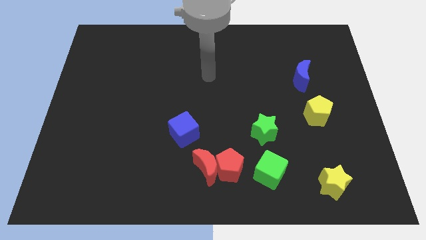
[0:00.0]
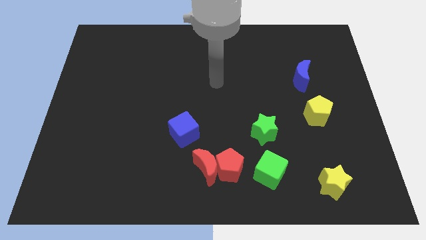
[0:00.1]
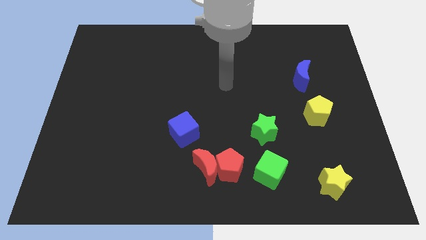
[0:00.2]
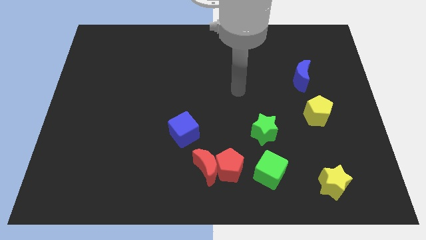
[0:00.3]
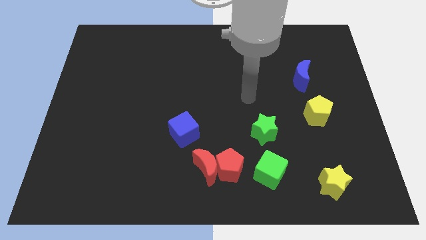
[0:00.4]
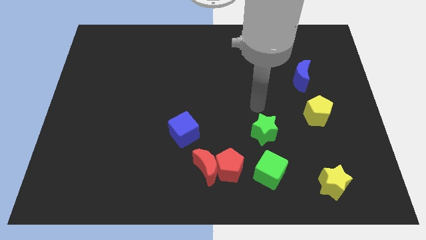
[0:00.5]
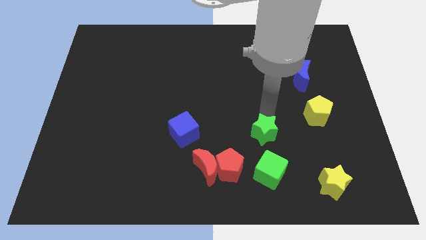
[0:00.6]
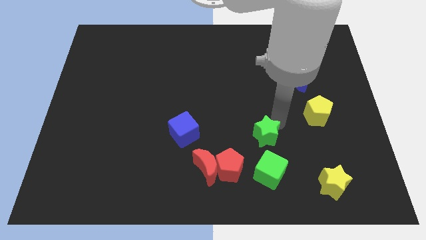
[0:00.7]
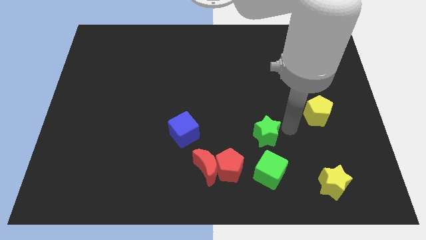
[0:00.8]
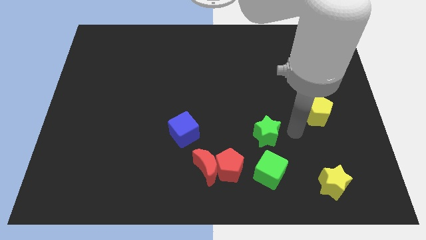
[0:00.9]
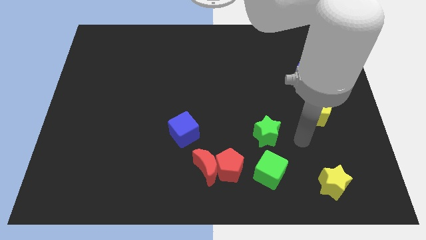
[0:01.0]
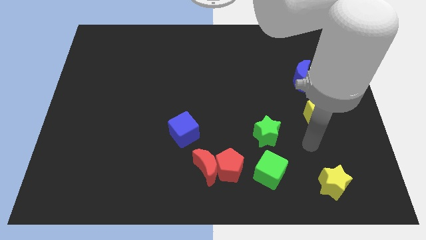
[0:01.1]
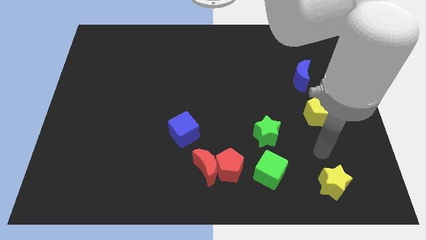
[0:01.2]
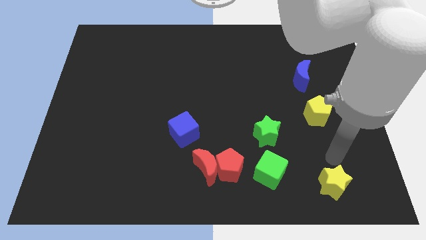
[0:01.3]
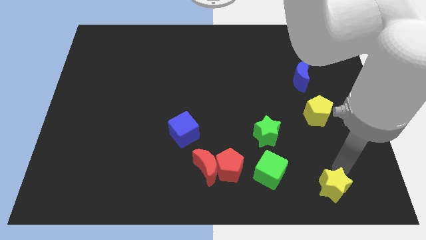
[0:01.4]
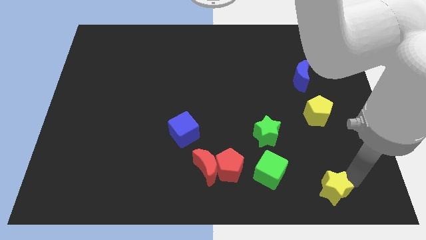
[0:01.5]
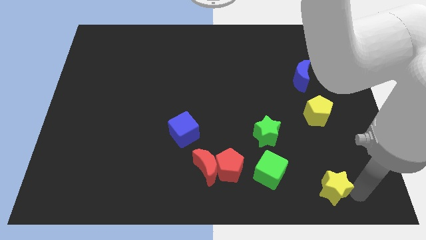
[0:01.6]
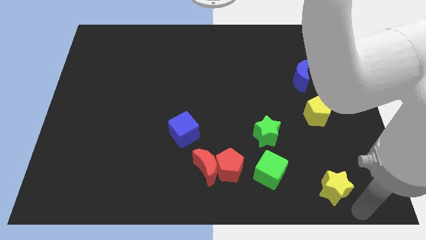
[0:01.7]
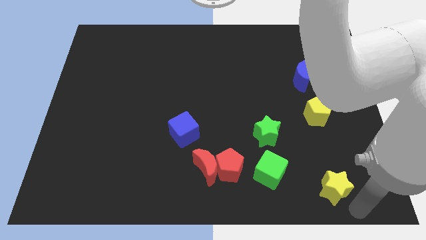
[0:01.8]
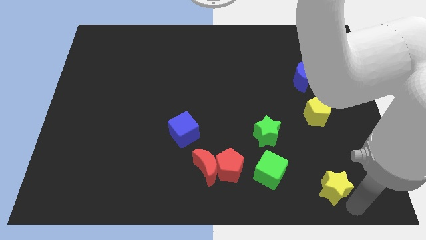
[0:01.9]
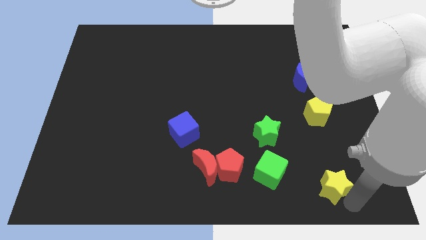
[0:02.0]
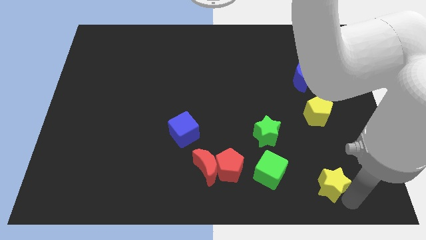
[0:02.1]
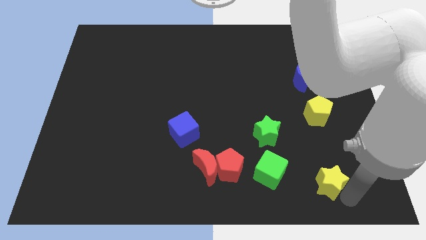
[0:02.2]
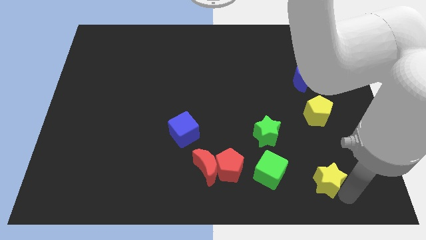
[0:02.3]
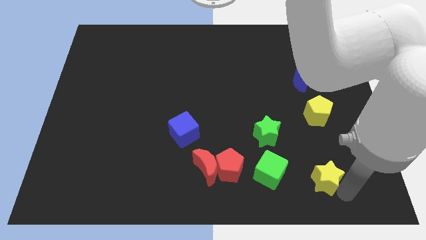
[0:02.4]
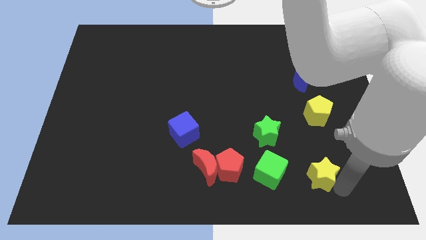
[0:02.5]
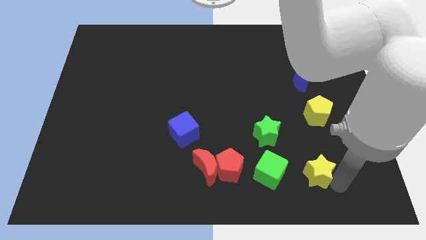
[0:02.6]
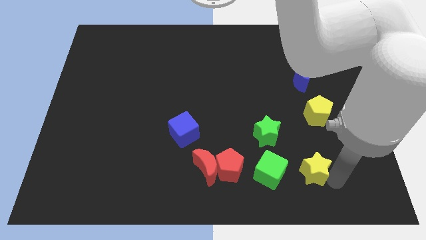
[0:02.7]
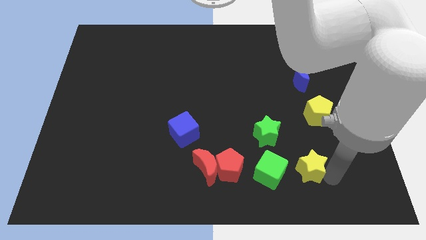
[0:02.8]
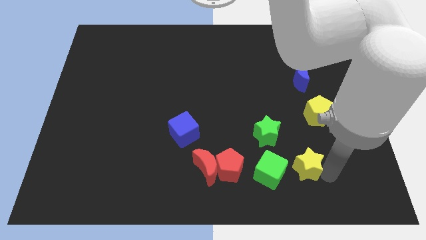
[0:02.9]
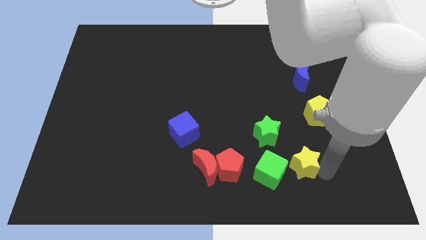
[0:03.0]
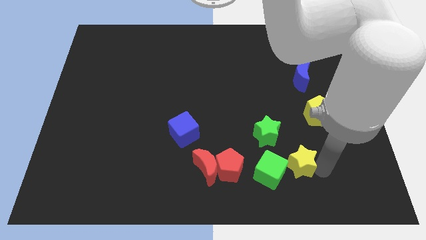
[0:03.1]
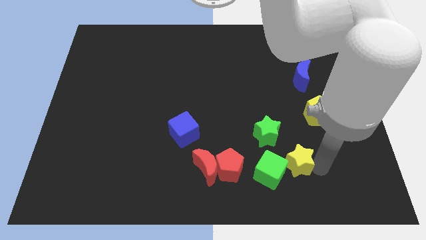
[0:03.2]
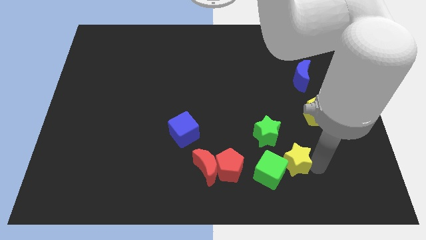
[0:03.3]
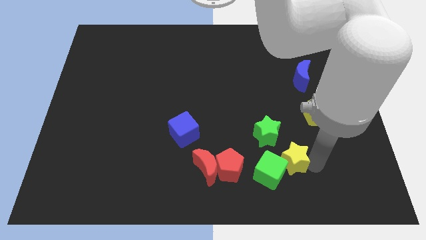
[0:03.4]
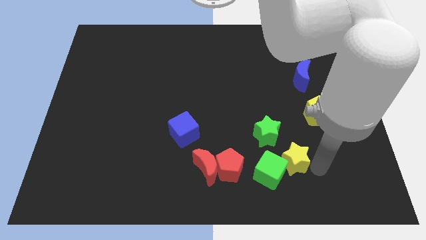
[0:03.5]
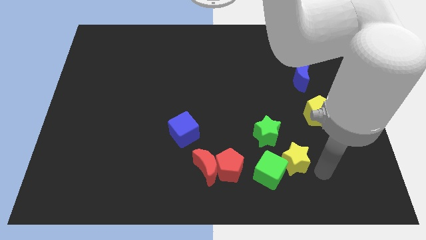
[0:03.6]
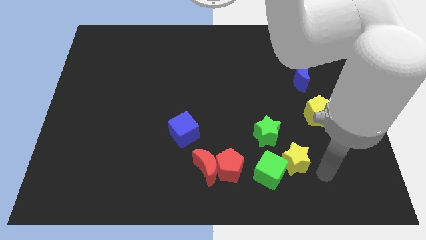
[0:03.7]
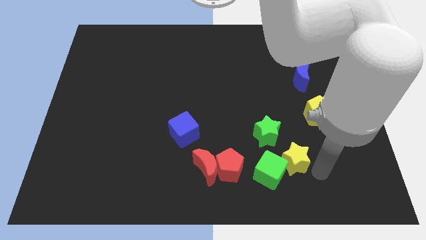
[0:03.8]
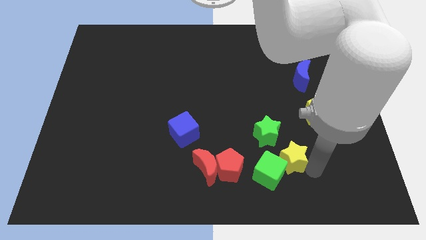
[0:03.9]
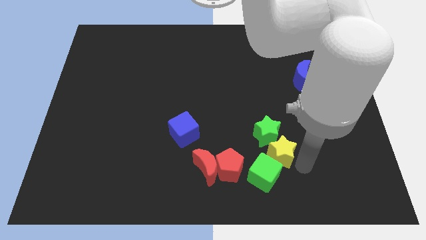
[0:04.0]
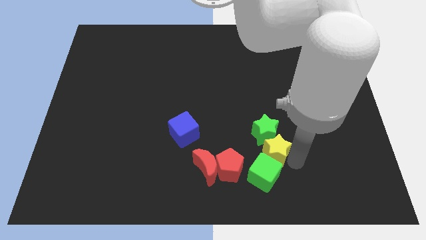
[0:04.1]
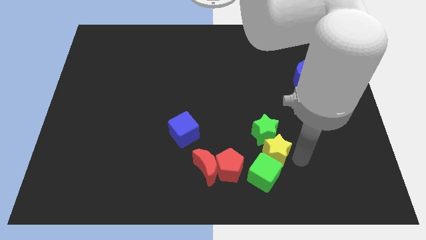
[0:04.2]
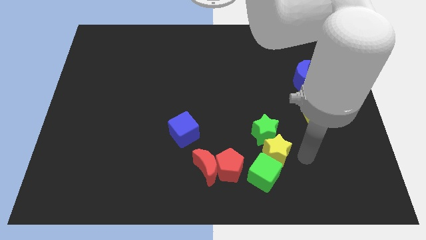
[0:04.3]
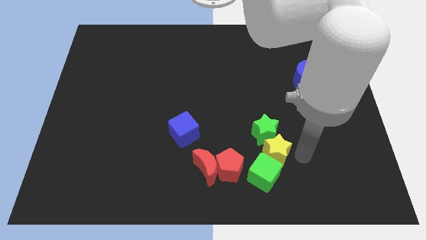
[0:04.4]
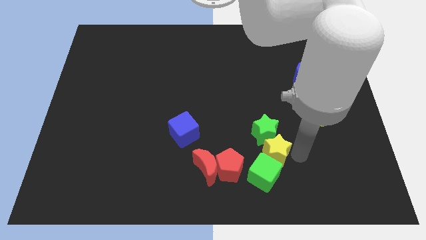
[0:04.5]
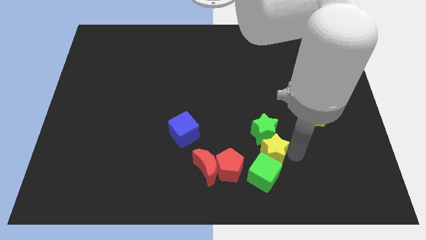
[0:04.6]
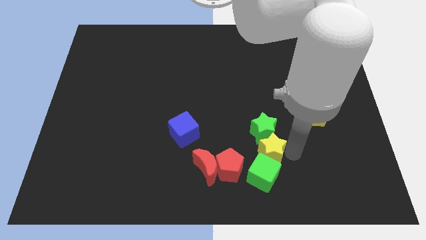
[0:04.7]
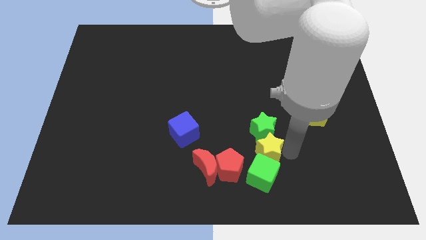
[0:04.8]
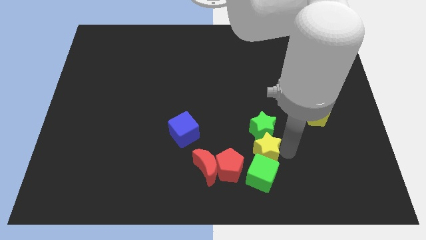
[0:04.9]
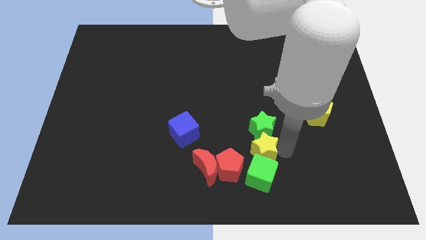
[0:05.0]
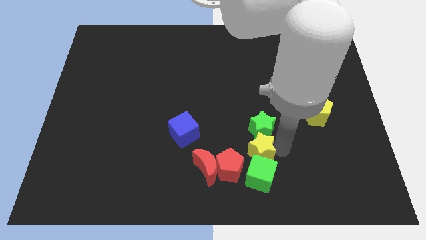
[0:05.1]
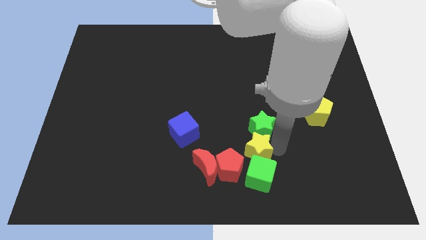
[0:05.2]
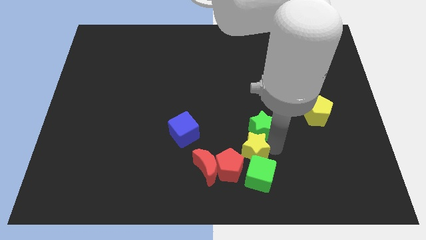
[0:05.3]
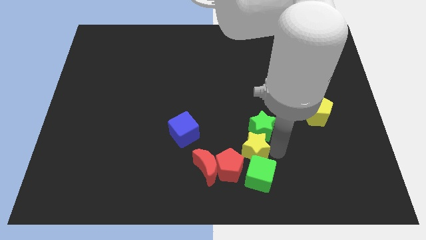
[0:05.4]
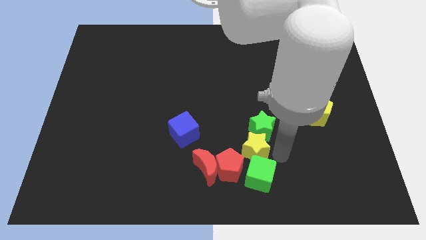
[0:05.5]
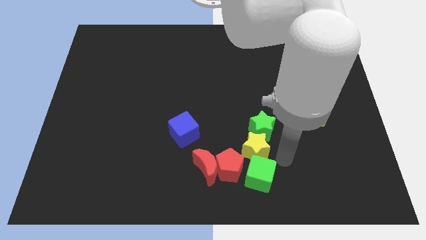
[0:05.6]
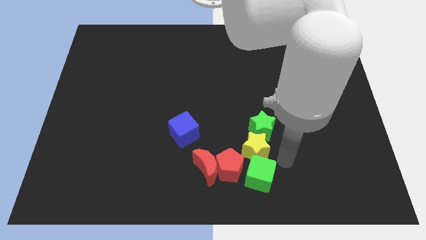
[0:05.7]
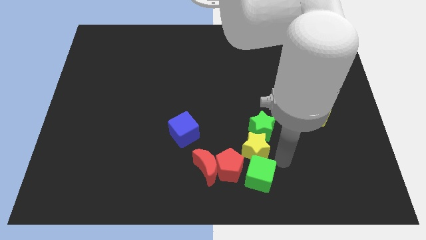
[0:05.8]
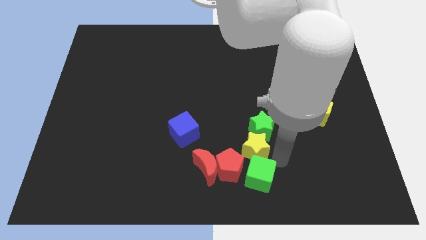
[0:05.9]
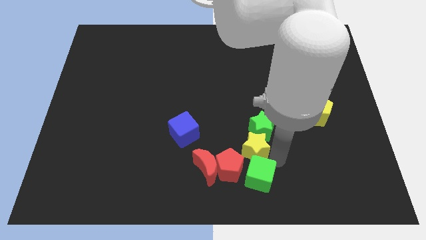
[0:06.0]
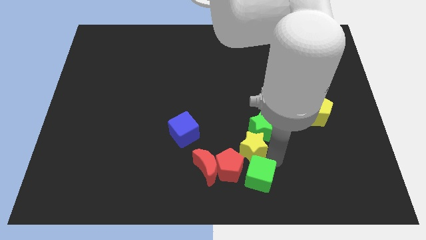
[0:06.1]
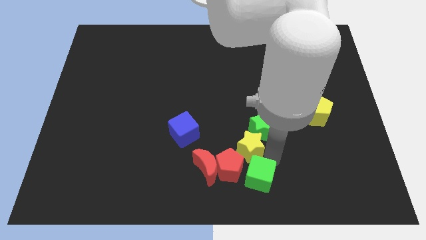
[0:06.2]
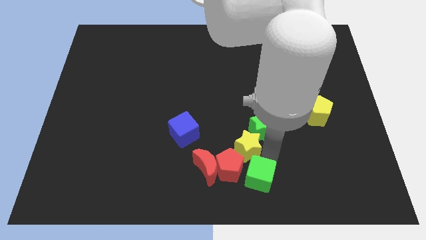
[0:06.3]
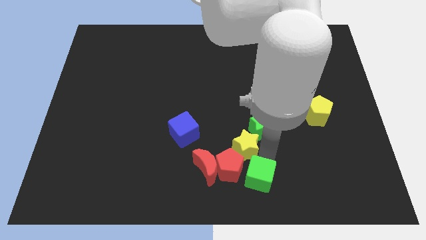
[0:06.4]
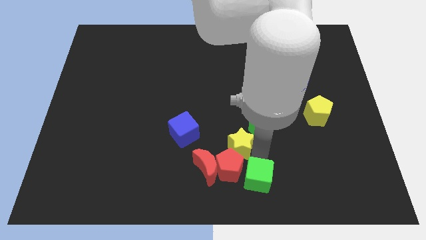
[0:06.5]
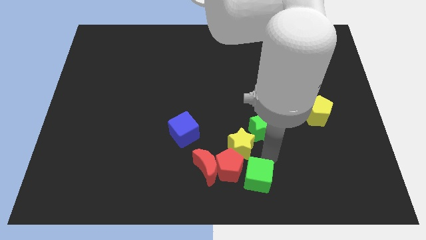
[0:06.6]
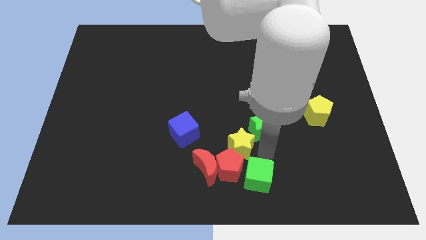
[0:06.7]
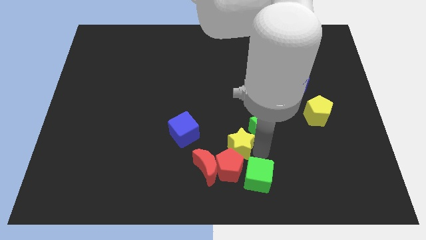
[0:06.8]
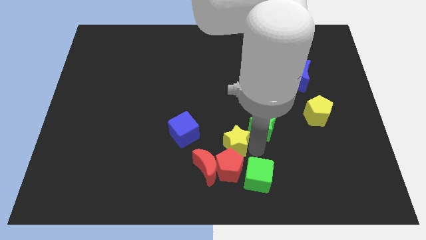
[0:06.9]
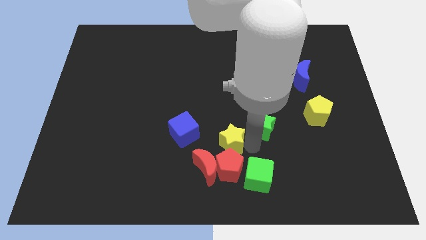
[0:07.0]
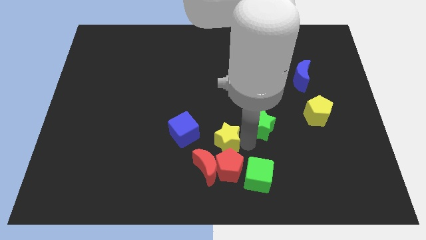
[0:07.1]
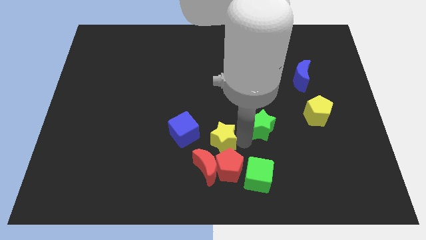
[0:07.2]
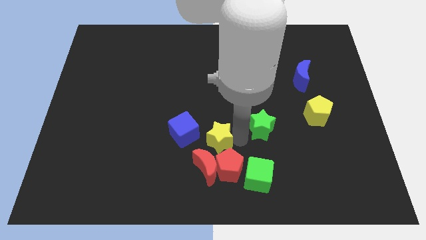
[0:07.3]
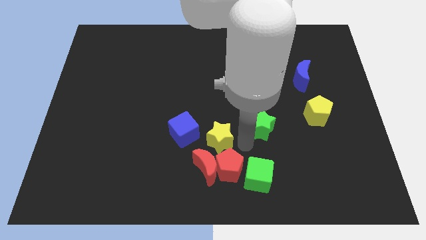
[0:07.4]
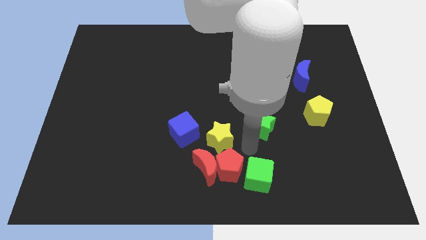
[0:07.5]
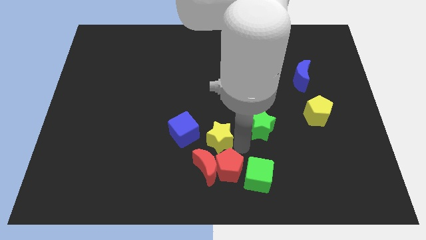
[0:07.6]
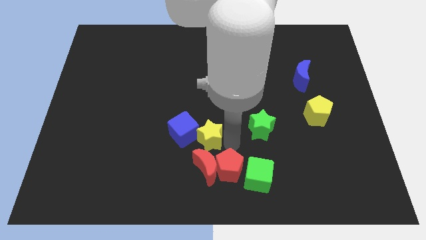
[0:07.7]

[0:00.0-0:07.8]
move the yellow star close to the blue cube
